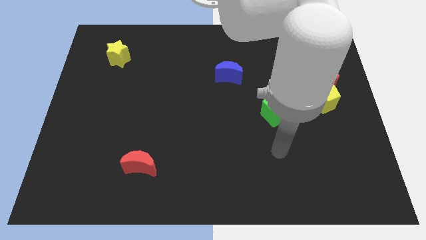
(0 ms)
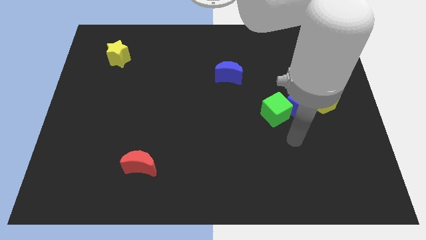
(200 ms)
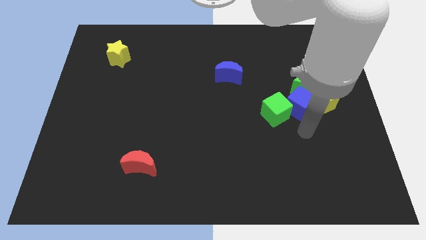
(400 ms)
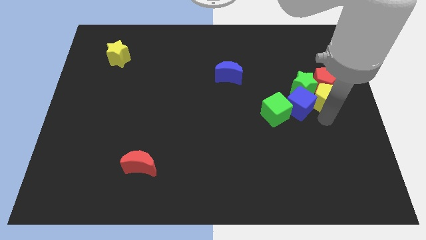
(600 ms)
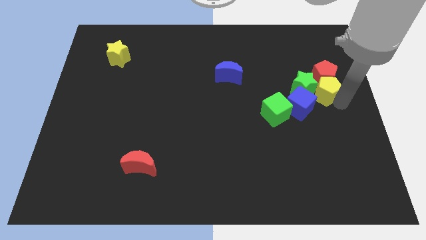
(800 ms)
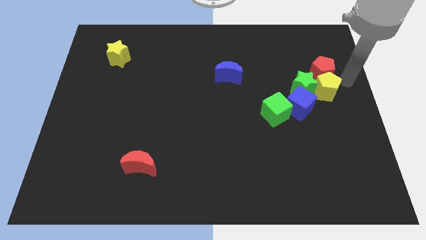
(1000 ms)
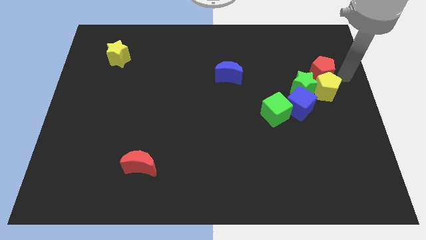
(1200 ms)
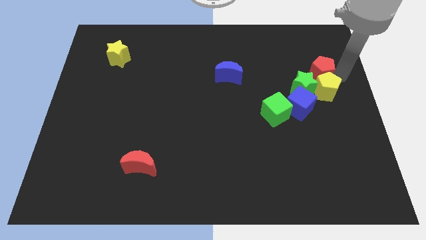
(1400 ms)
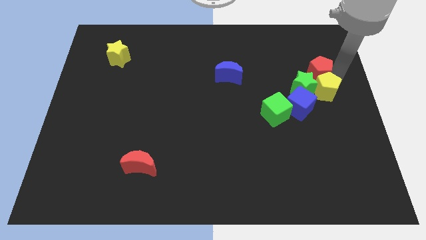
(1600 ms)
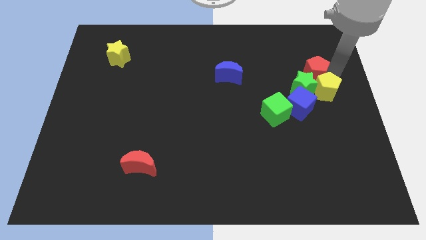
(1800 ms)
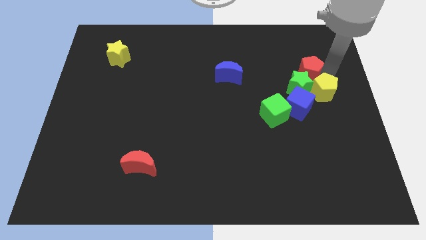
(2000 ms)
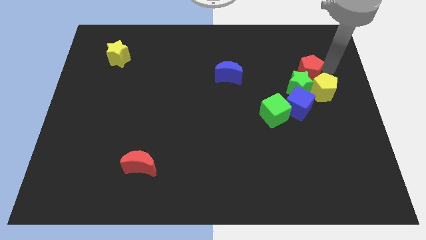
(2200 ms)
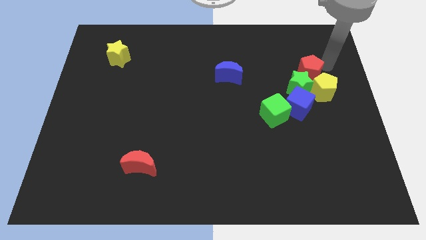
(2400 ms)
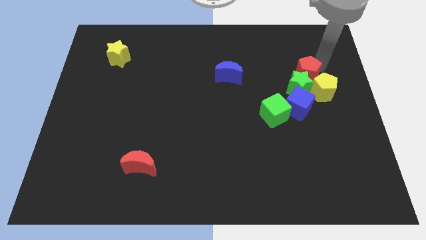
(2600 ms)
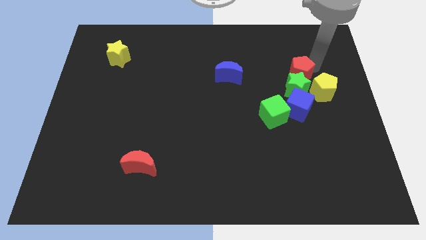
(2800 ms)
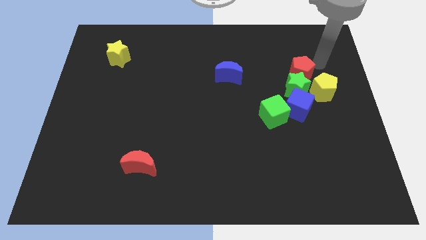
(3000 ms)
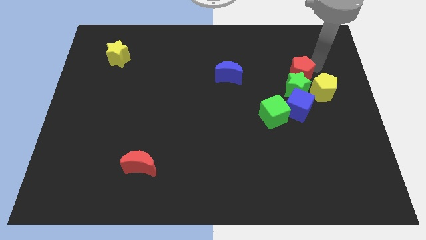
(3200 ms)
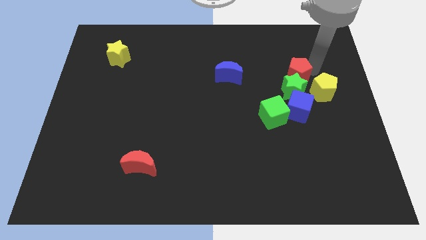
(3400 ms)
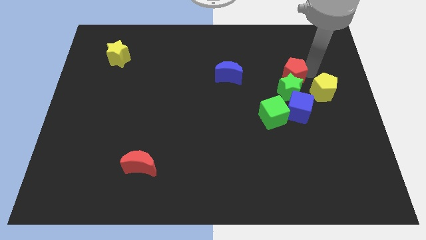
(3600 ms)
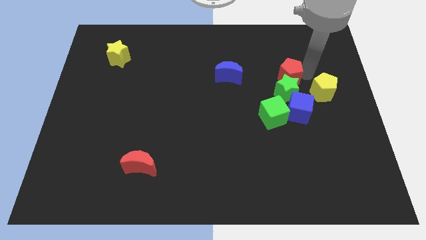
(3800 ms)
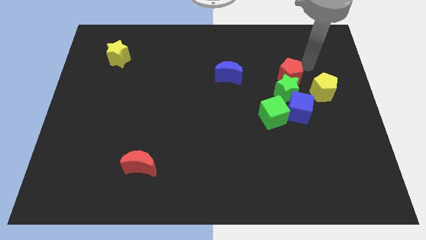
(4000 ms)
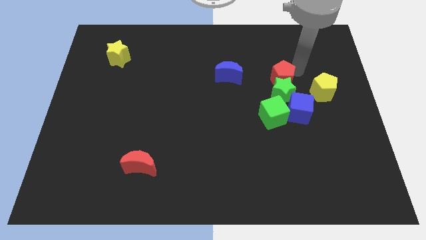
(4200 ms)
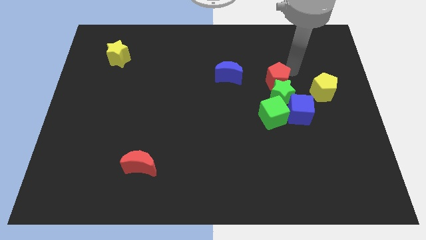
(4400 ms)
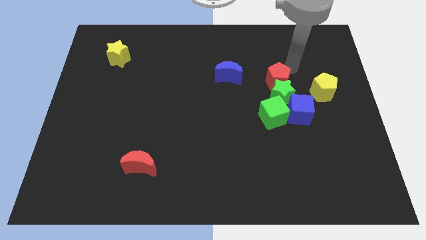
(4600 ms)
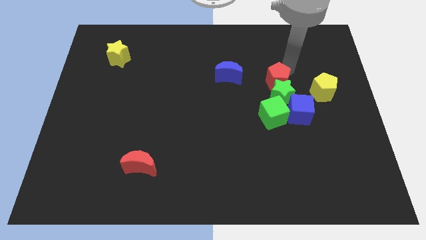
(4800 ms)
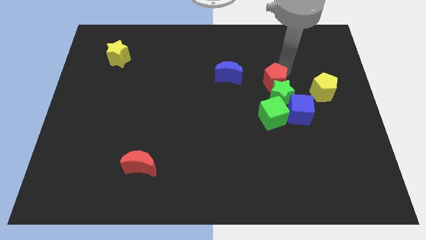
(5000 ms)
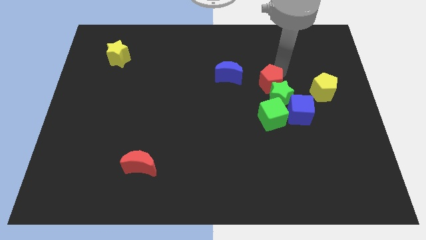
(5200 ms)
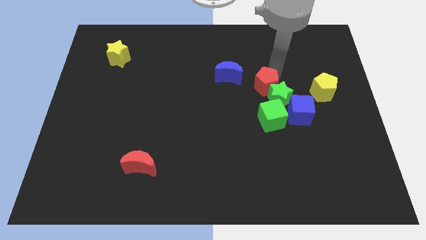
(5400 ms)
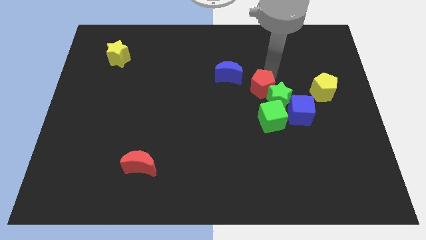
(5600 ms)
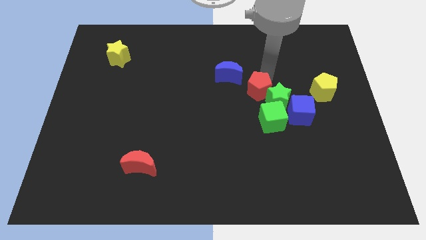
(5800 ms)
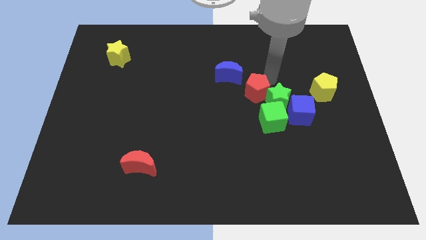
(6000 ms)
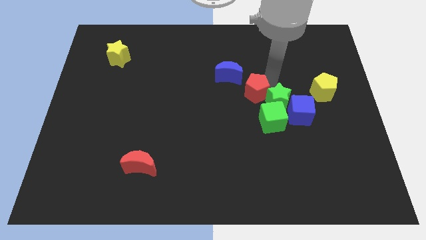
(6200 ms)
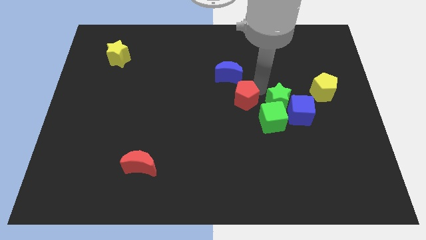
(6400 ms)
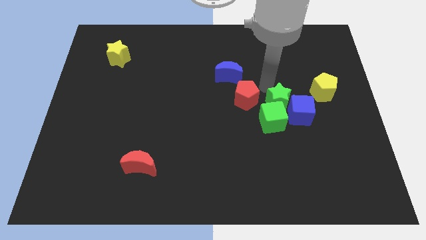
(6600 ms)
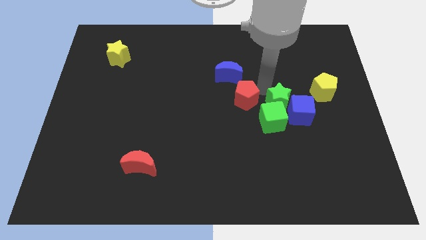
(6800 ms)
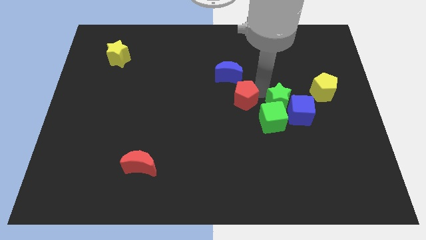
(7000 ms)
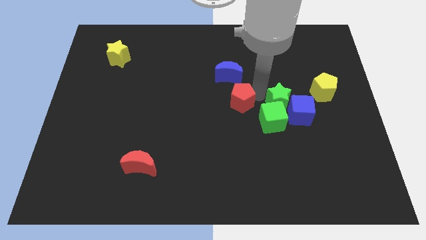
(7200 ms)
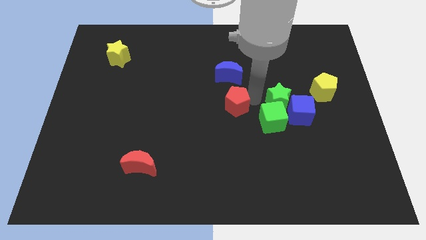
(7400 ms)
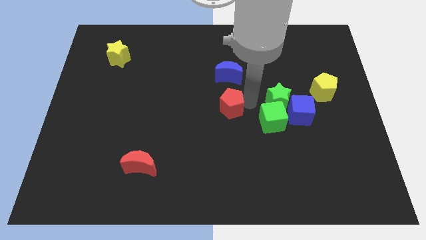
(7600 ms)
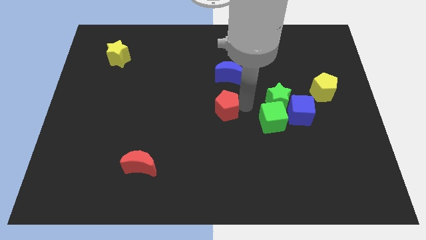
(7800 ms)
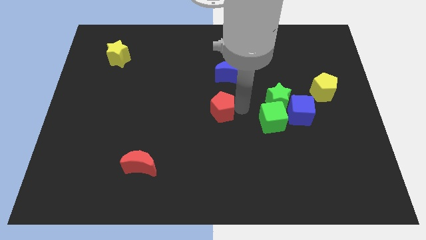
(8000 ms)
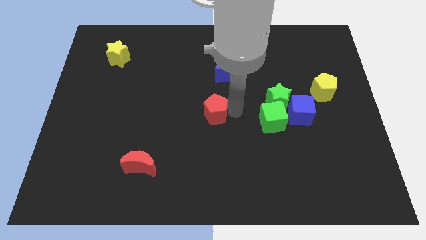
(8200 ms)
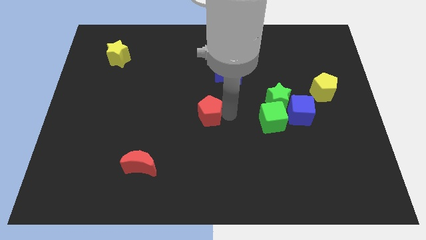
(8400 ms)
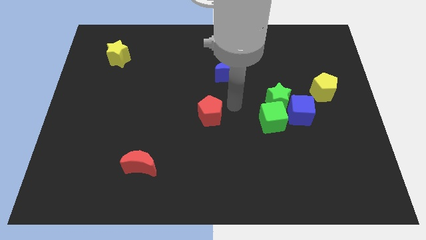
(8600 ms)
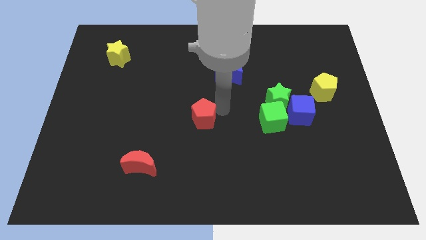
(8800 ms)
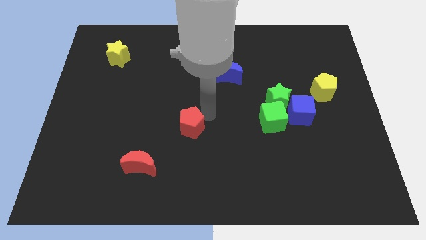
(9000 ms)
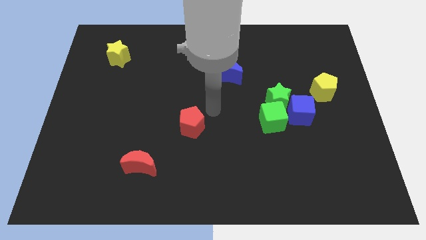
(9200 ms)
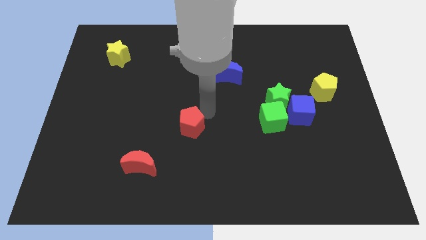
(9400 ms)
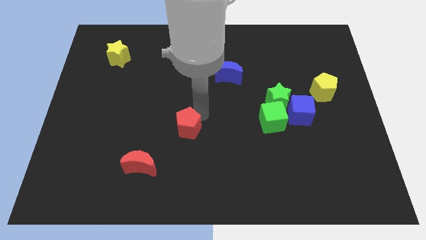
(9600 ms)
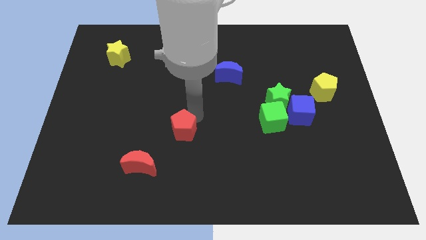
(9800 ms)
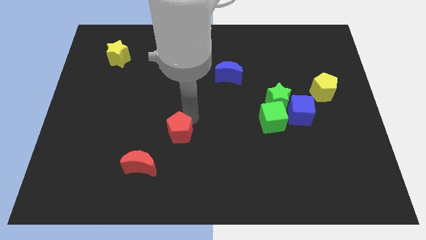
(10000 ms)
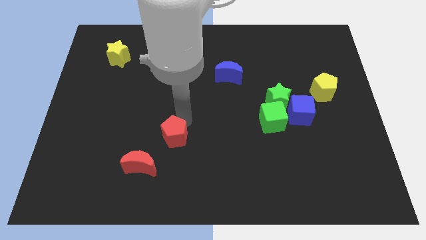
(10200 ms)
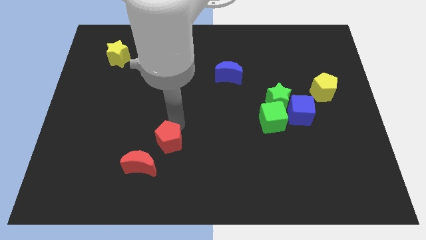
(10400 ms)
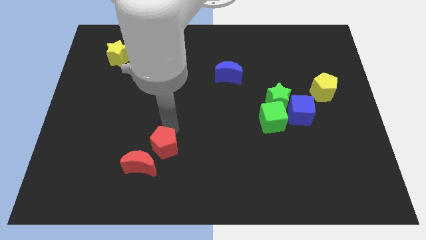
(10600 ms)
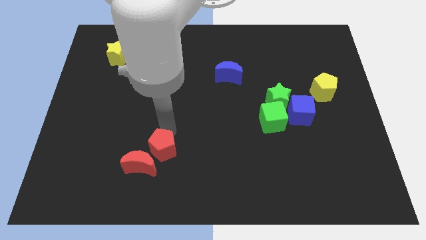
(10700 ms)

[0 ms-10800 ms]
move the red pentagon towards the red moon

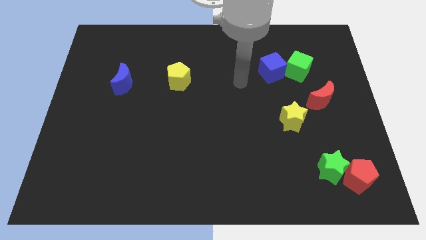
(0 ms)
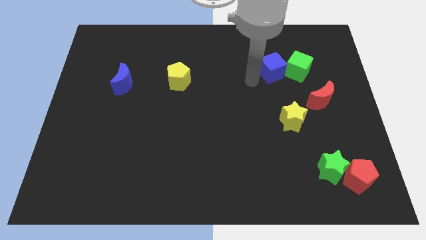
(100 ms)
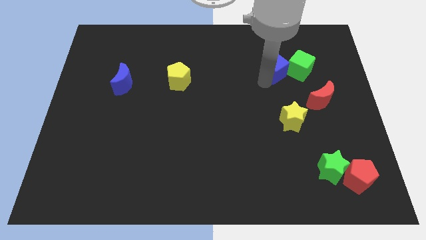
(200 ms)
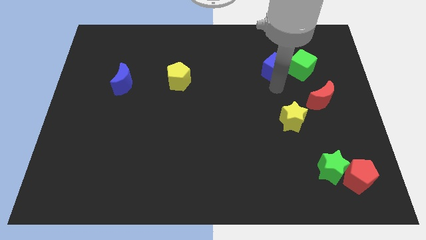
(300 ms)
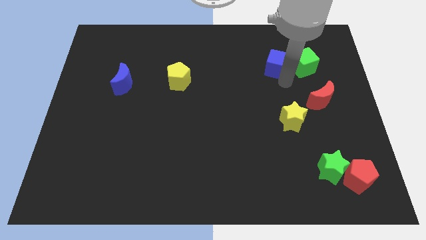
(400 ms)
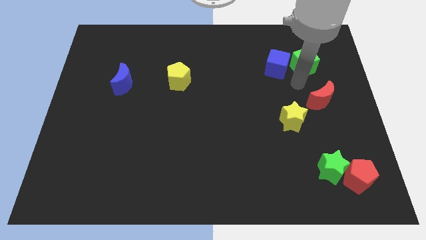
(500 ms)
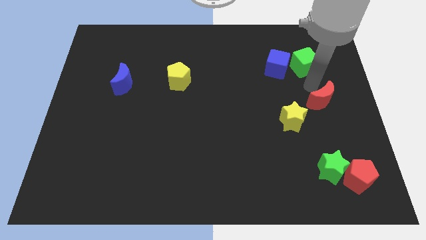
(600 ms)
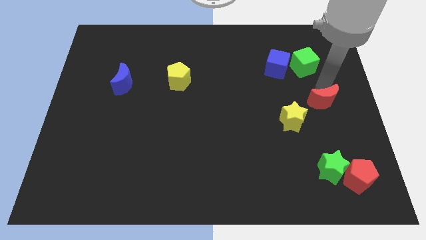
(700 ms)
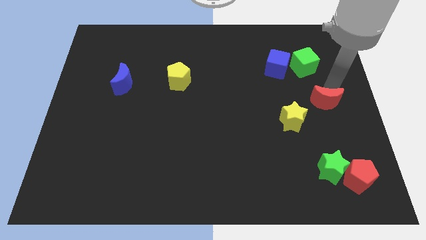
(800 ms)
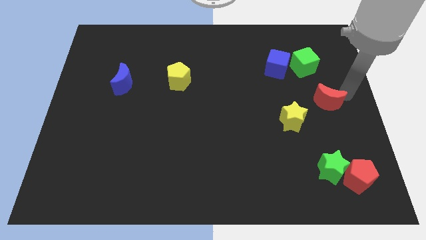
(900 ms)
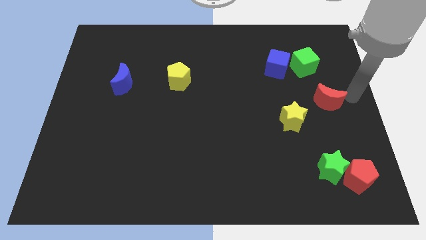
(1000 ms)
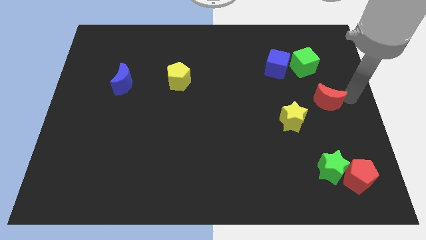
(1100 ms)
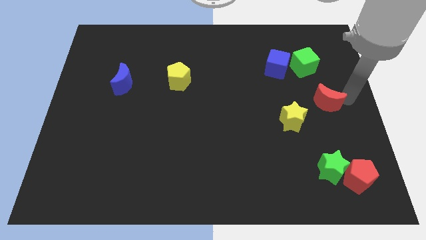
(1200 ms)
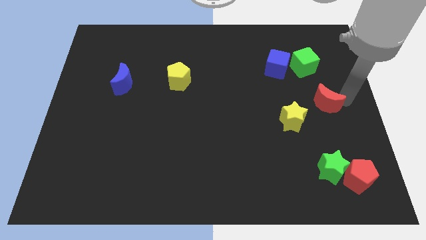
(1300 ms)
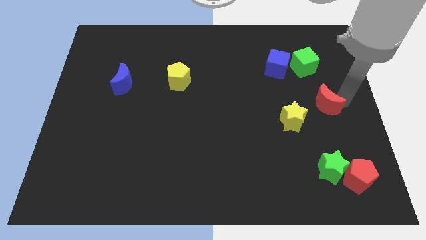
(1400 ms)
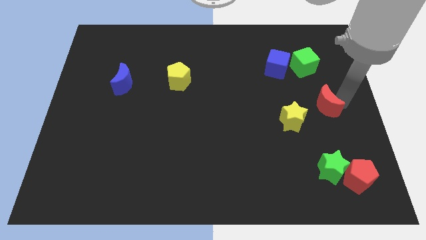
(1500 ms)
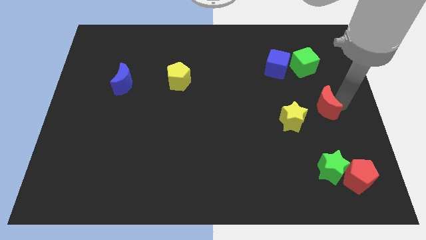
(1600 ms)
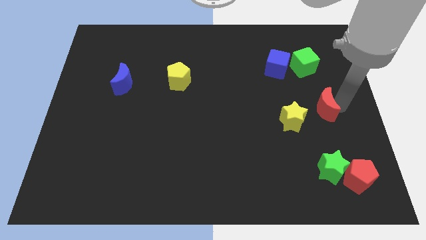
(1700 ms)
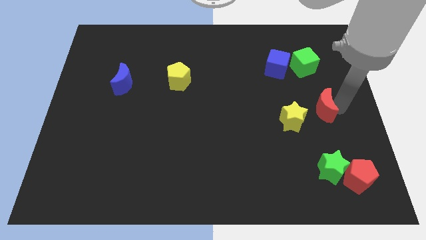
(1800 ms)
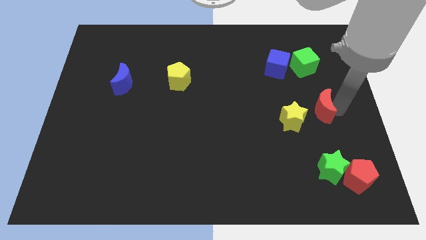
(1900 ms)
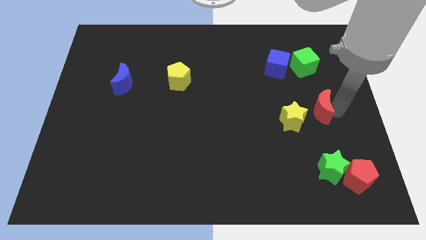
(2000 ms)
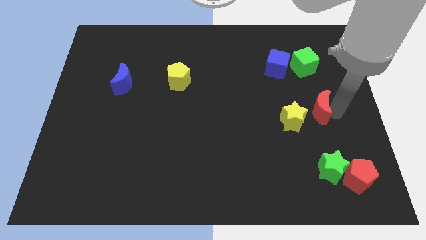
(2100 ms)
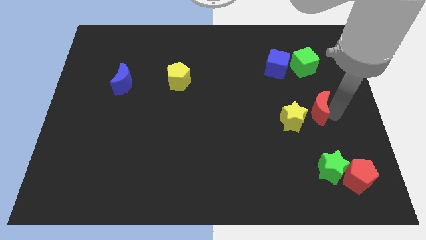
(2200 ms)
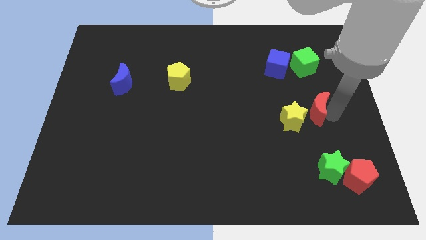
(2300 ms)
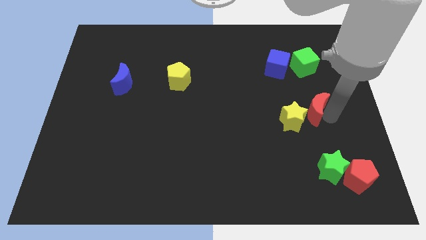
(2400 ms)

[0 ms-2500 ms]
move the red moon towards the yellow star

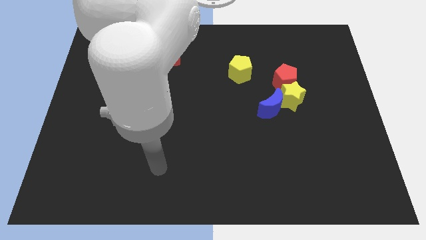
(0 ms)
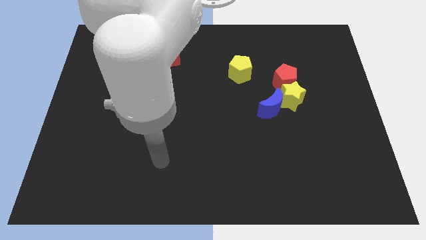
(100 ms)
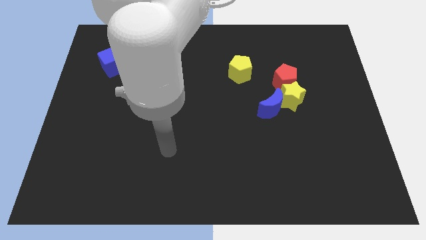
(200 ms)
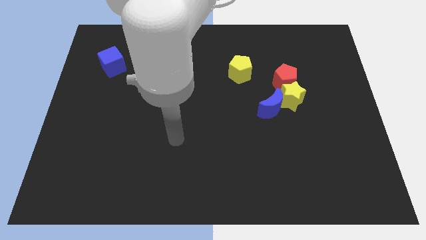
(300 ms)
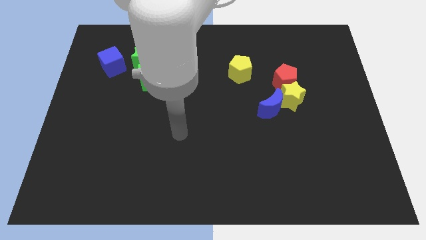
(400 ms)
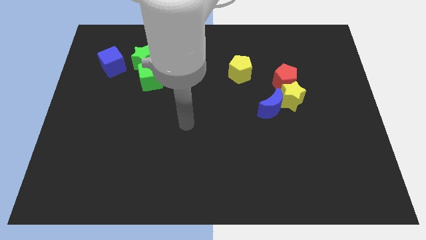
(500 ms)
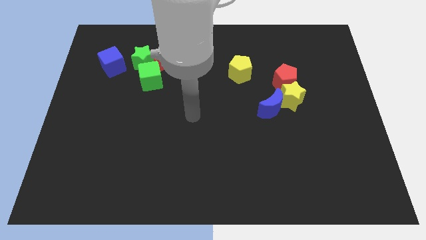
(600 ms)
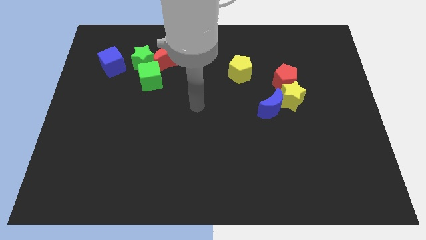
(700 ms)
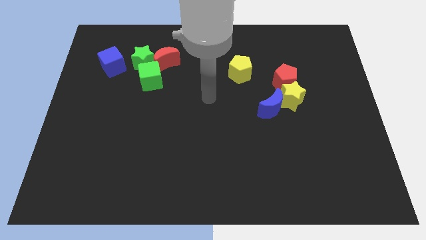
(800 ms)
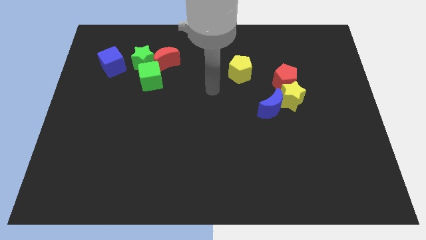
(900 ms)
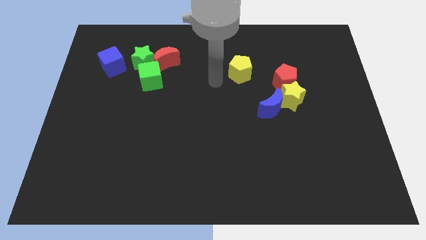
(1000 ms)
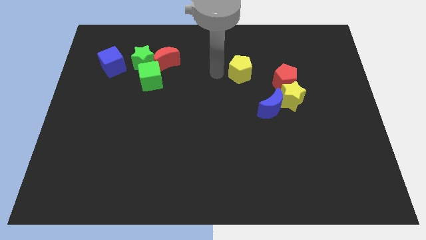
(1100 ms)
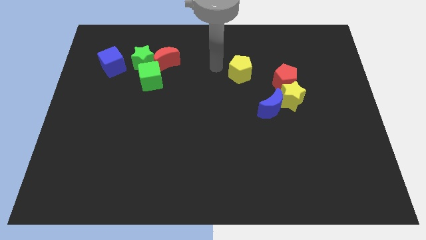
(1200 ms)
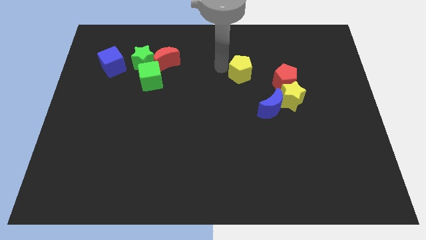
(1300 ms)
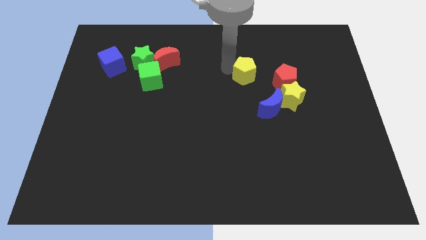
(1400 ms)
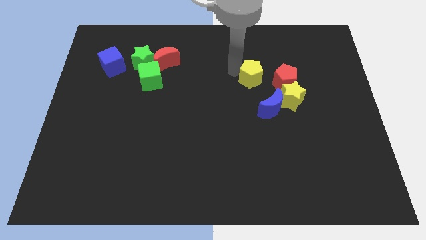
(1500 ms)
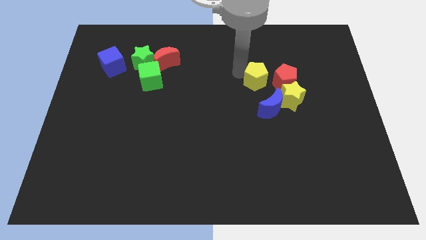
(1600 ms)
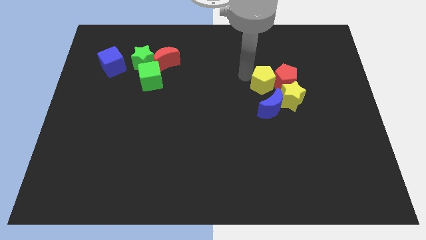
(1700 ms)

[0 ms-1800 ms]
move the yellow pentagon to the red pentagon
